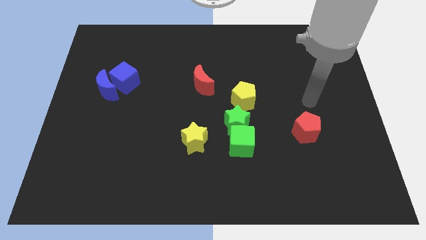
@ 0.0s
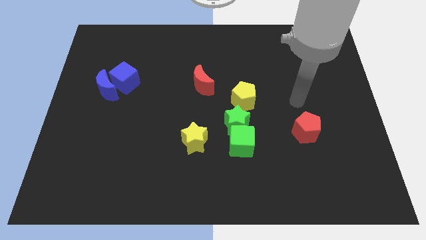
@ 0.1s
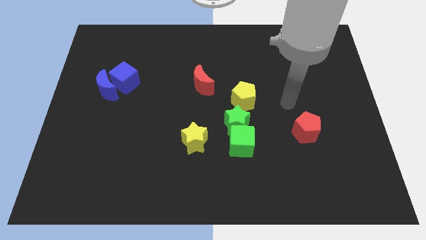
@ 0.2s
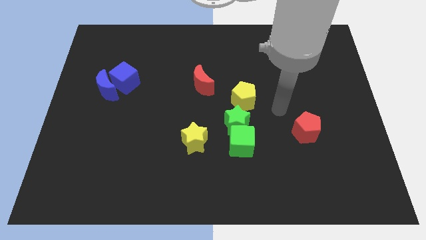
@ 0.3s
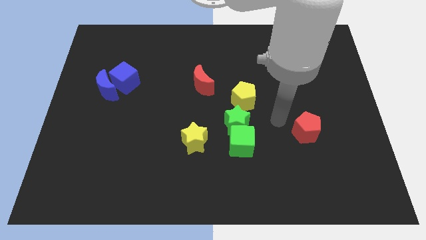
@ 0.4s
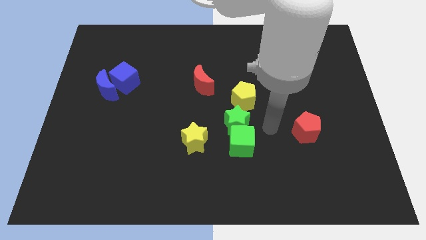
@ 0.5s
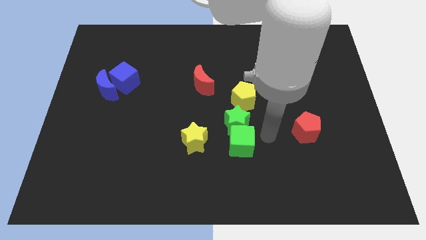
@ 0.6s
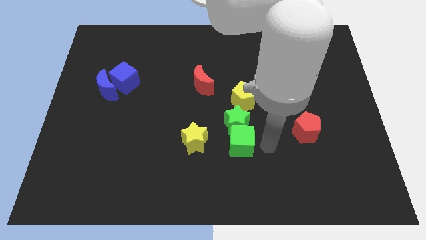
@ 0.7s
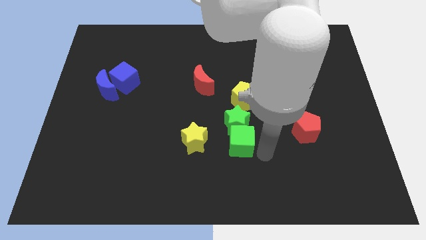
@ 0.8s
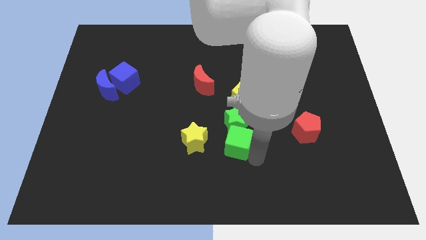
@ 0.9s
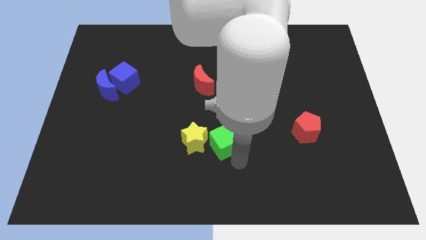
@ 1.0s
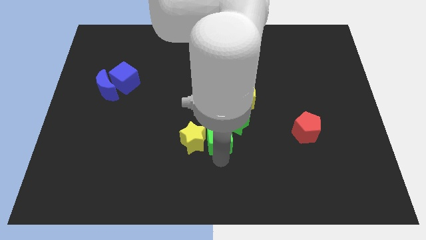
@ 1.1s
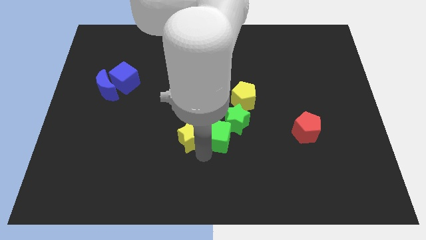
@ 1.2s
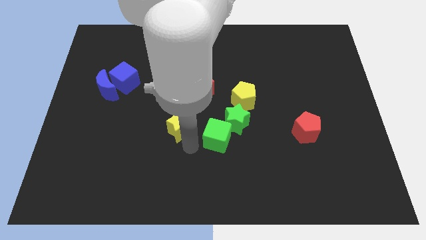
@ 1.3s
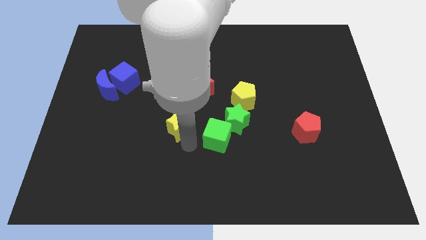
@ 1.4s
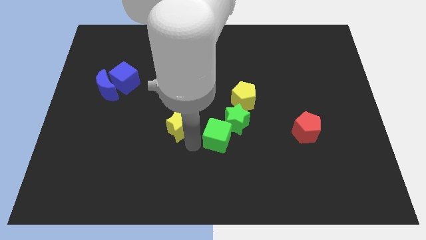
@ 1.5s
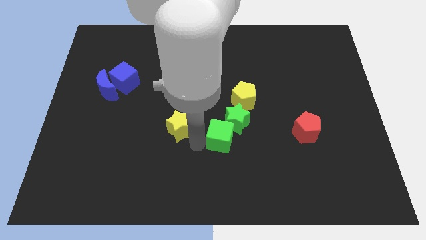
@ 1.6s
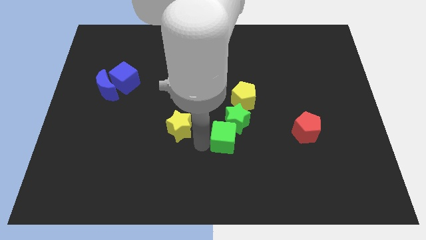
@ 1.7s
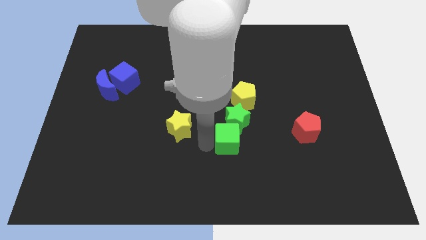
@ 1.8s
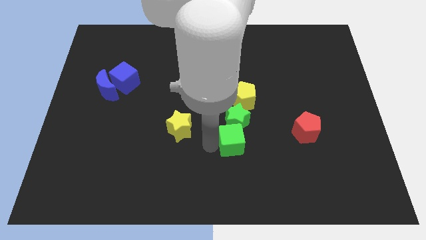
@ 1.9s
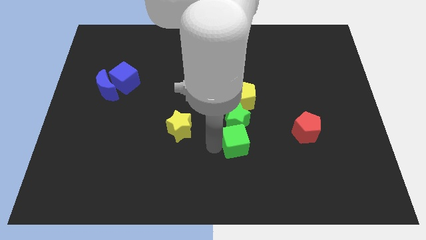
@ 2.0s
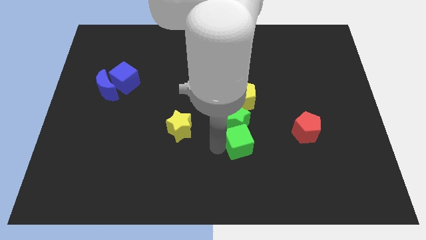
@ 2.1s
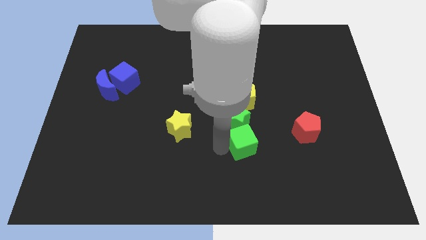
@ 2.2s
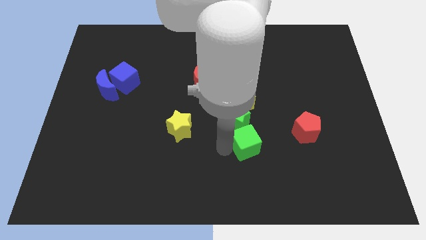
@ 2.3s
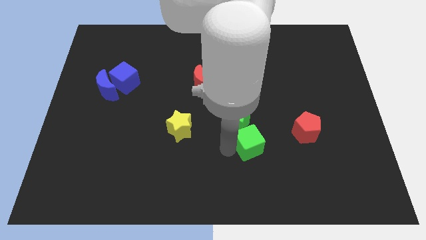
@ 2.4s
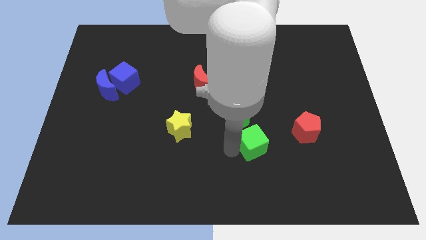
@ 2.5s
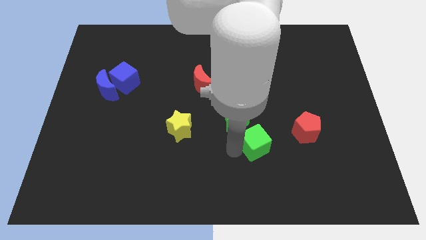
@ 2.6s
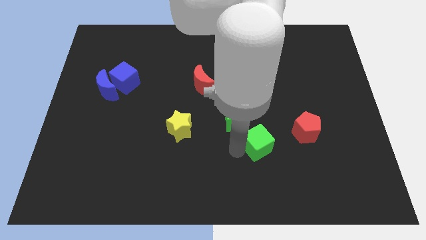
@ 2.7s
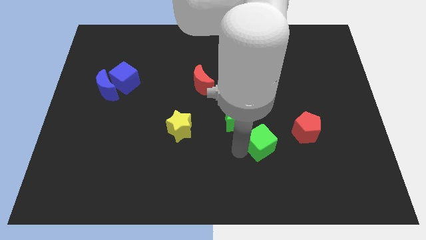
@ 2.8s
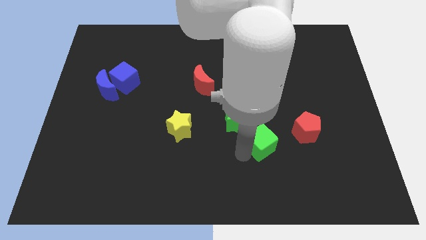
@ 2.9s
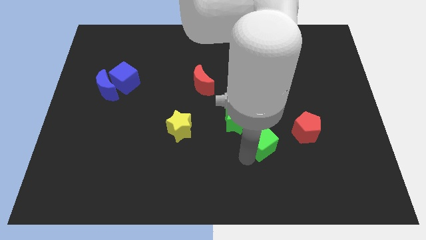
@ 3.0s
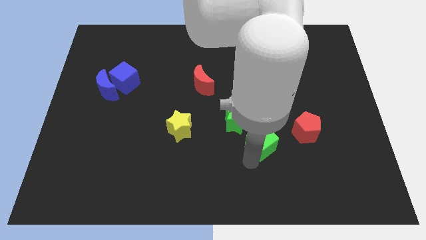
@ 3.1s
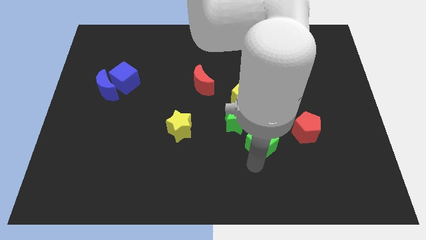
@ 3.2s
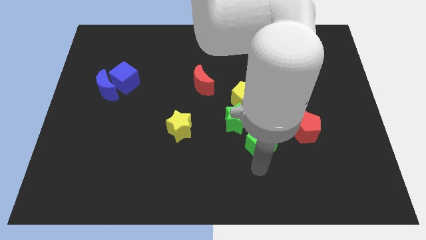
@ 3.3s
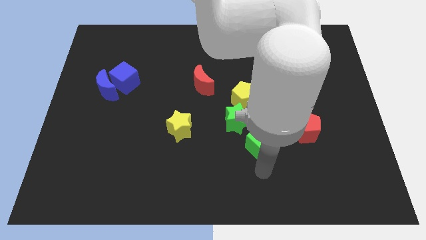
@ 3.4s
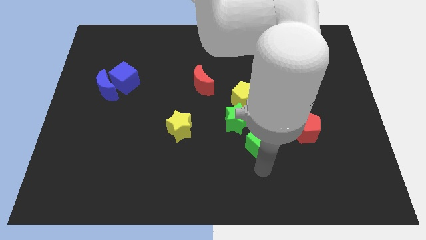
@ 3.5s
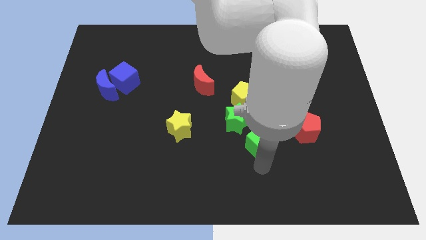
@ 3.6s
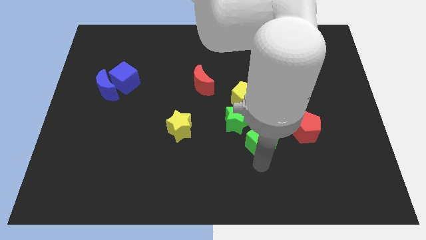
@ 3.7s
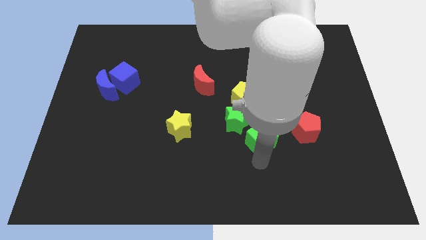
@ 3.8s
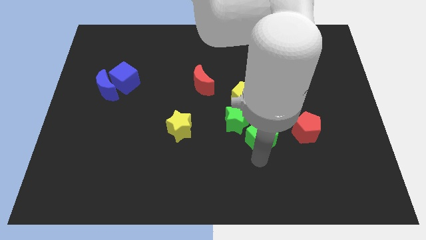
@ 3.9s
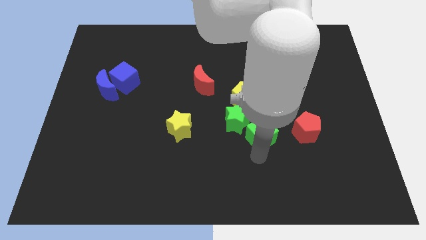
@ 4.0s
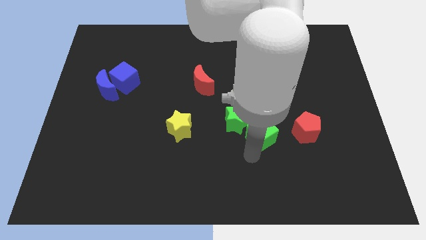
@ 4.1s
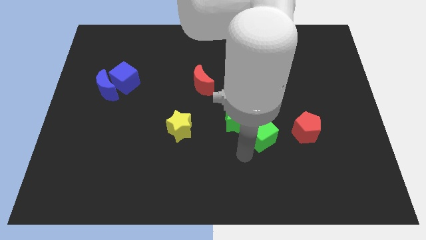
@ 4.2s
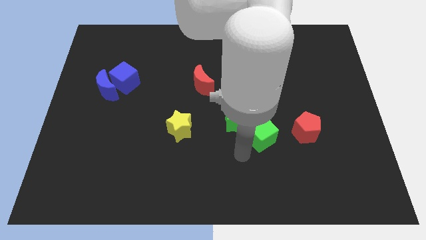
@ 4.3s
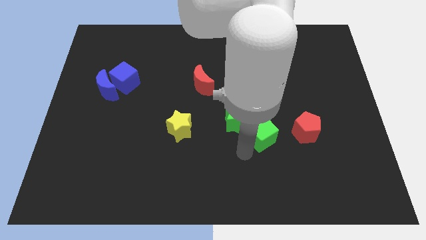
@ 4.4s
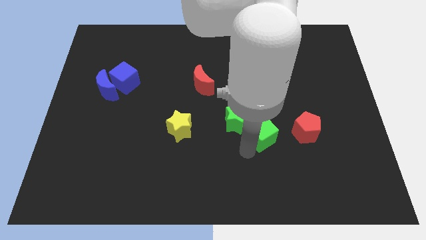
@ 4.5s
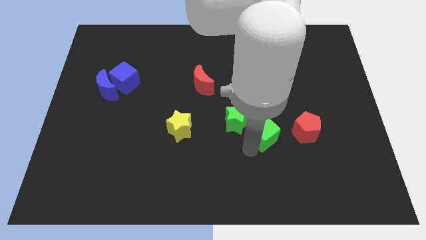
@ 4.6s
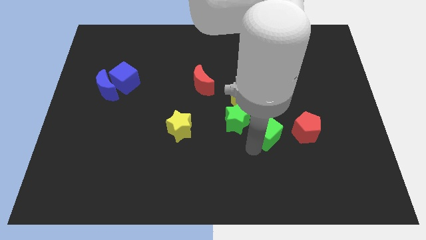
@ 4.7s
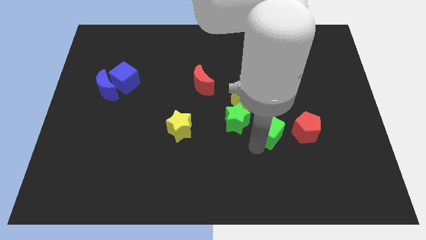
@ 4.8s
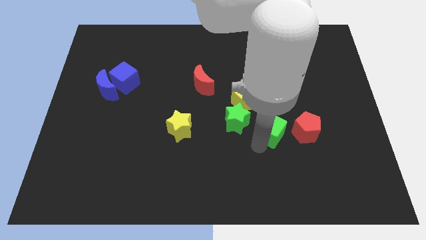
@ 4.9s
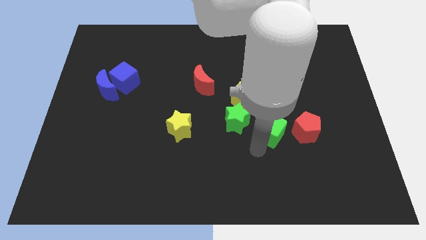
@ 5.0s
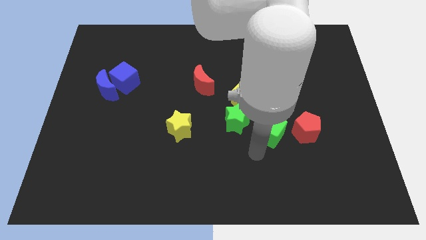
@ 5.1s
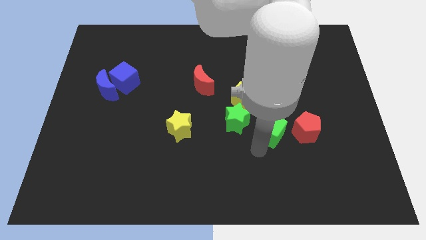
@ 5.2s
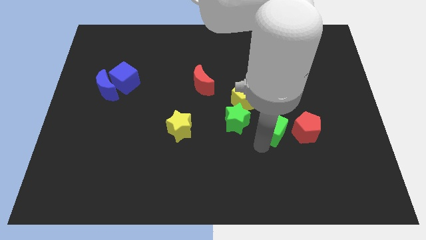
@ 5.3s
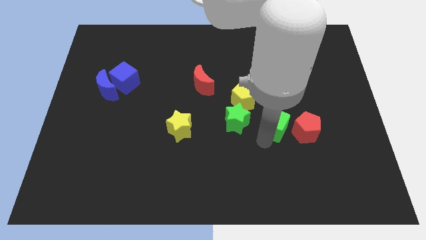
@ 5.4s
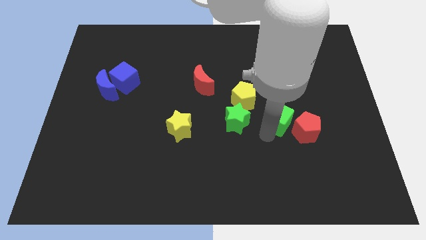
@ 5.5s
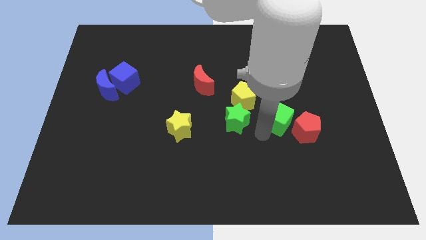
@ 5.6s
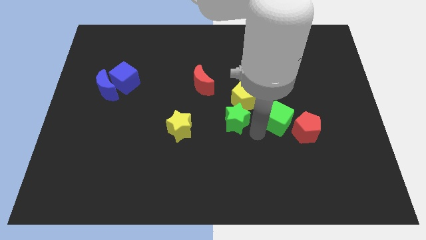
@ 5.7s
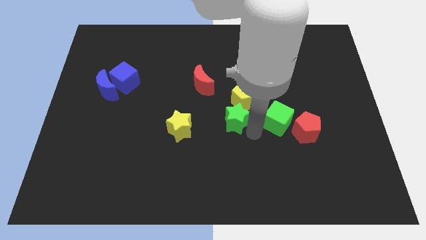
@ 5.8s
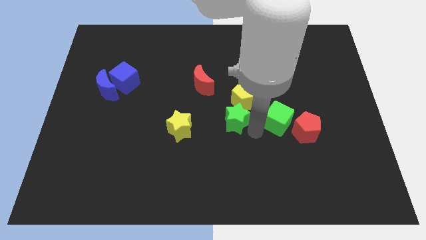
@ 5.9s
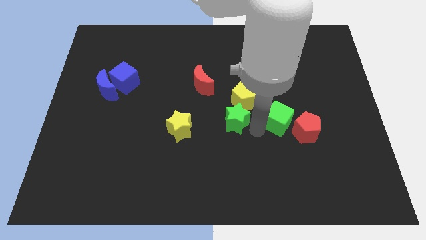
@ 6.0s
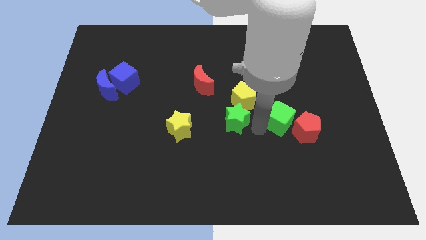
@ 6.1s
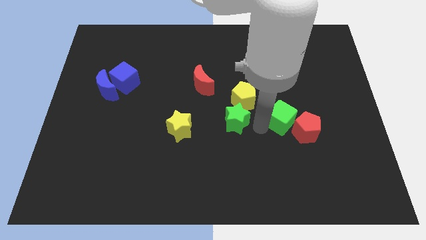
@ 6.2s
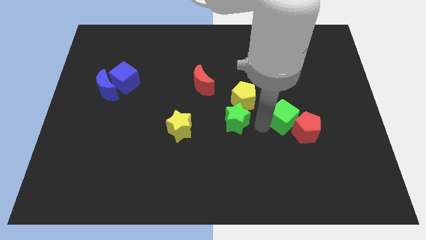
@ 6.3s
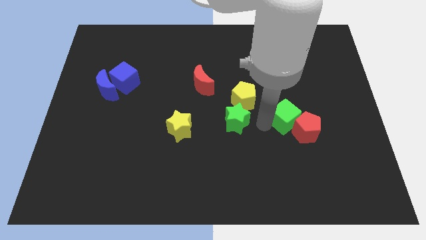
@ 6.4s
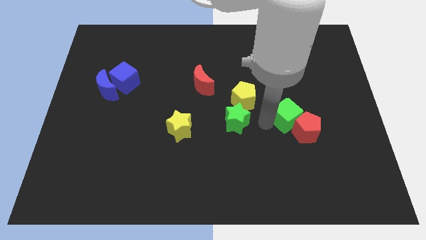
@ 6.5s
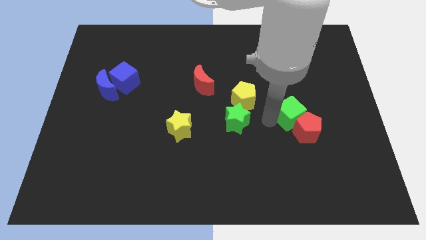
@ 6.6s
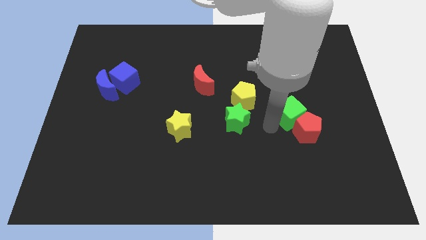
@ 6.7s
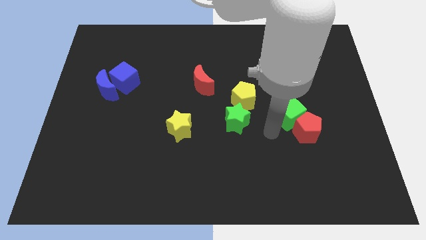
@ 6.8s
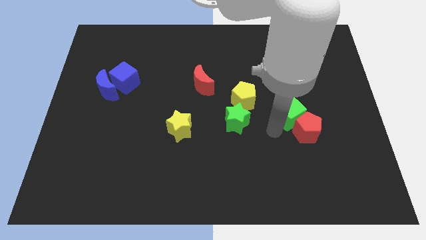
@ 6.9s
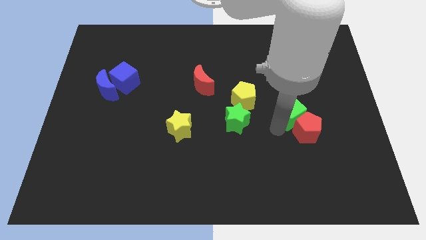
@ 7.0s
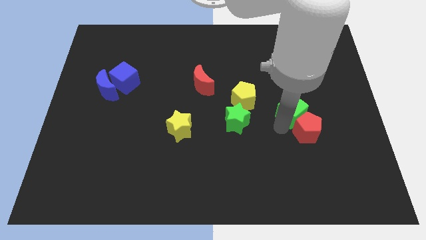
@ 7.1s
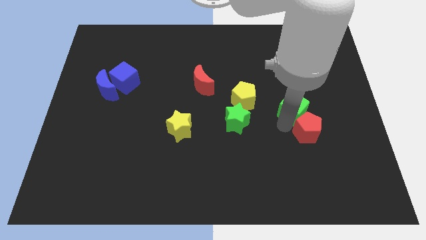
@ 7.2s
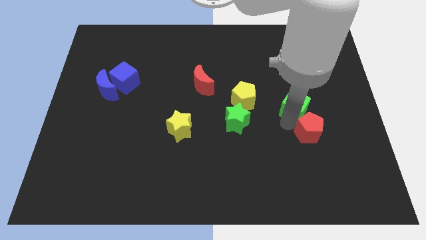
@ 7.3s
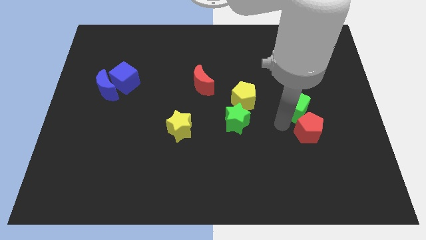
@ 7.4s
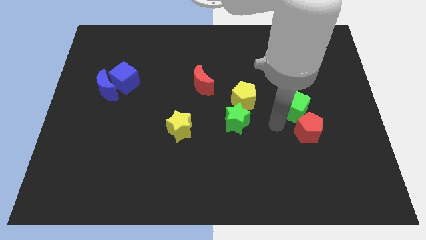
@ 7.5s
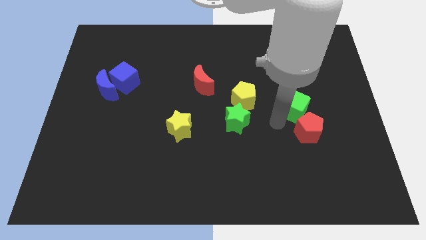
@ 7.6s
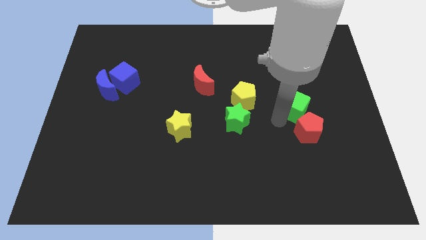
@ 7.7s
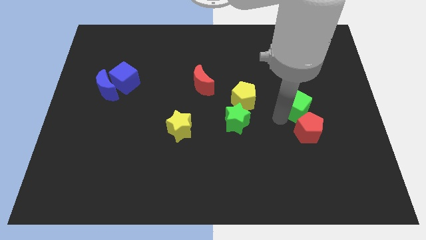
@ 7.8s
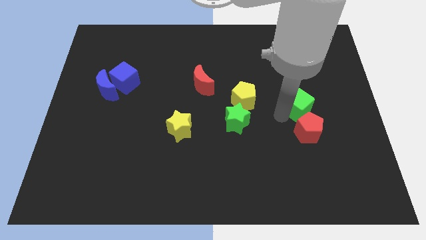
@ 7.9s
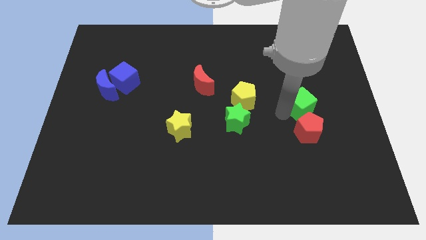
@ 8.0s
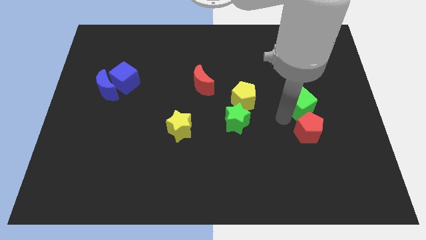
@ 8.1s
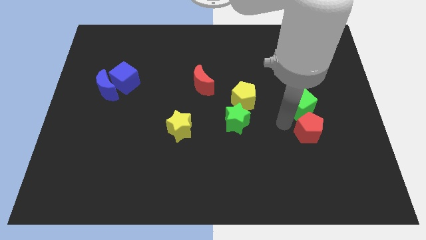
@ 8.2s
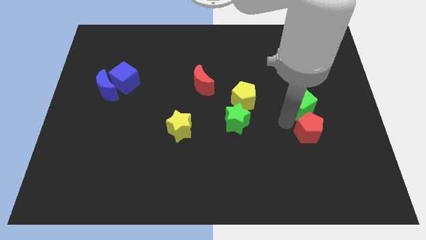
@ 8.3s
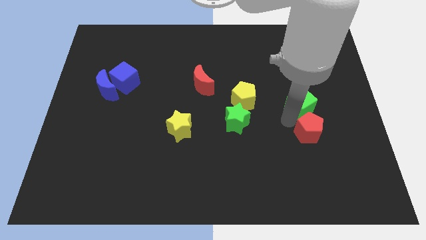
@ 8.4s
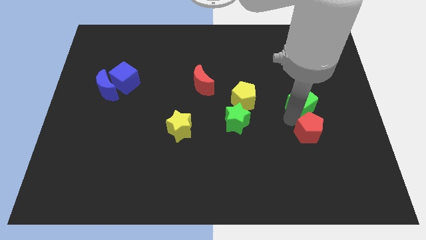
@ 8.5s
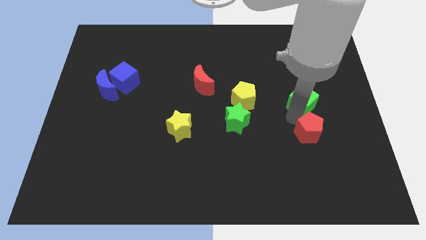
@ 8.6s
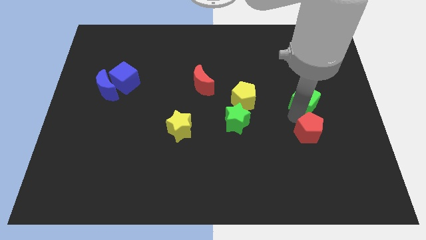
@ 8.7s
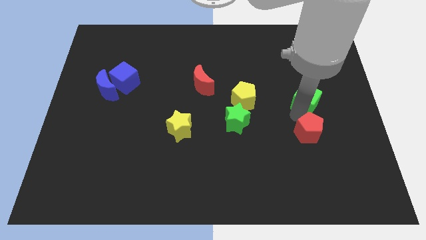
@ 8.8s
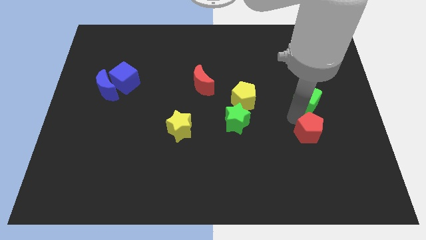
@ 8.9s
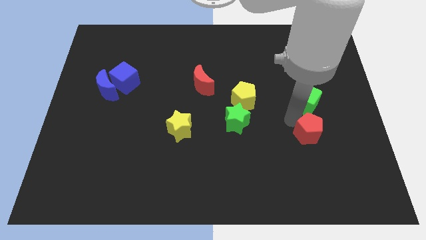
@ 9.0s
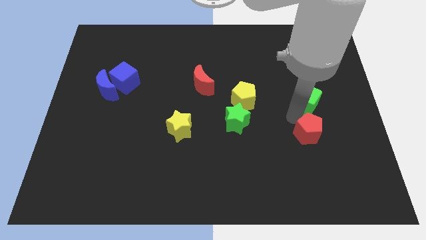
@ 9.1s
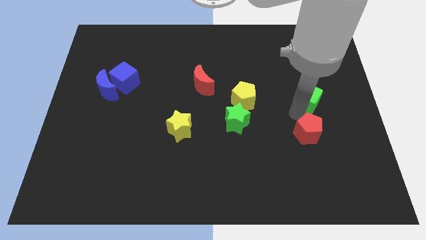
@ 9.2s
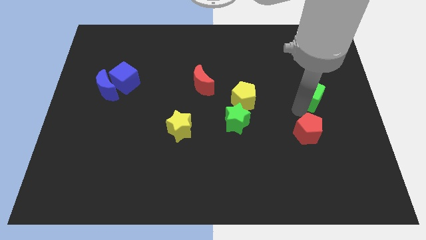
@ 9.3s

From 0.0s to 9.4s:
slide the green cube diagonally upwards and right
